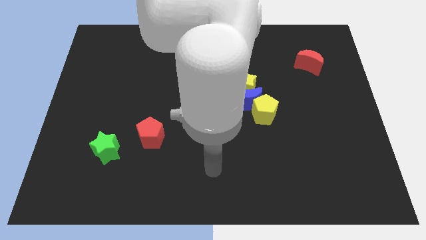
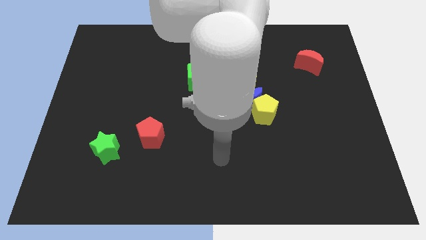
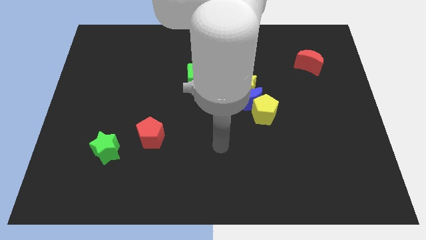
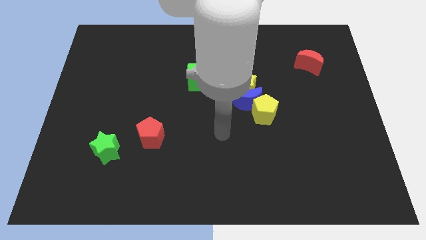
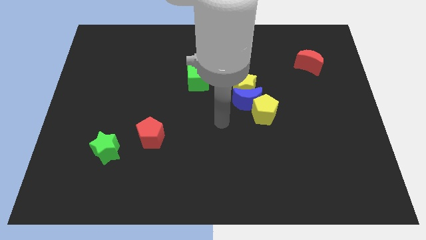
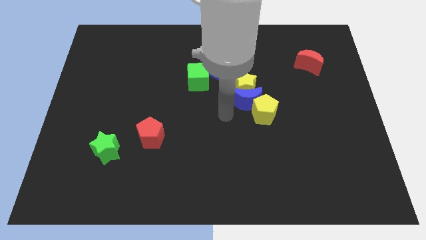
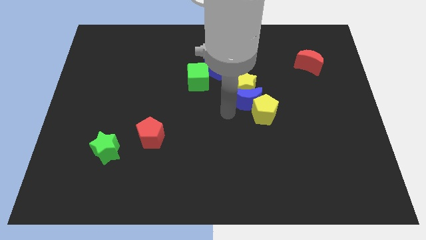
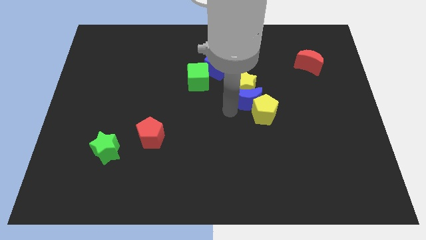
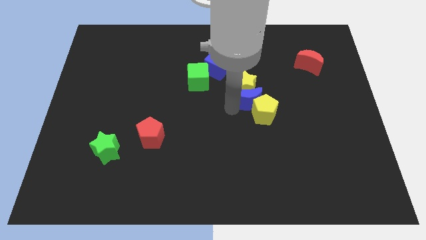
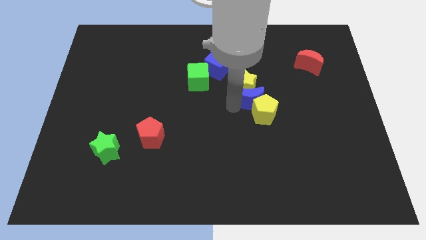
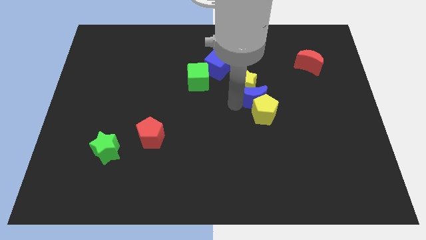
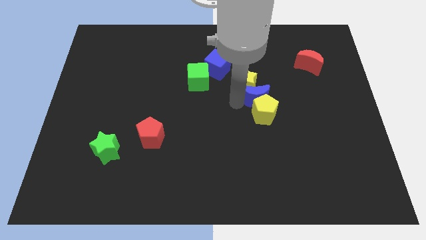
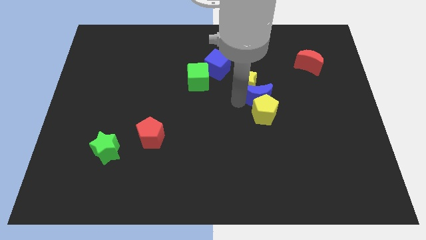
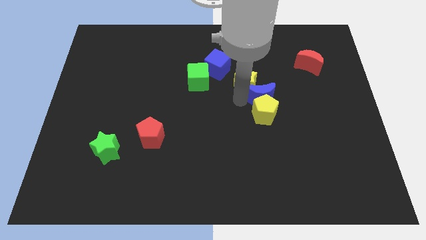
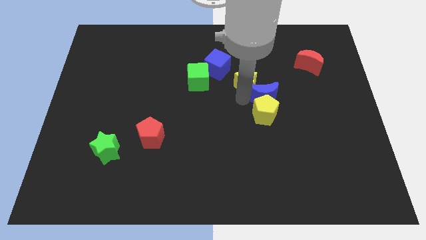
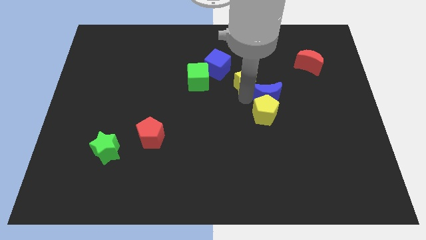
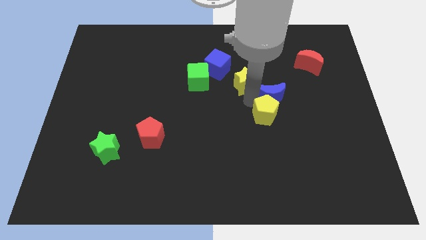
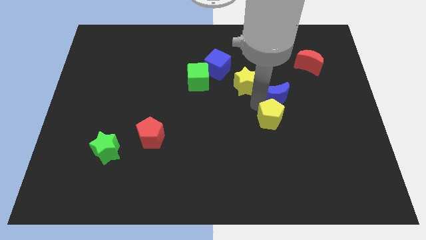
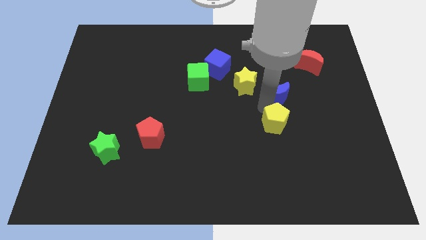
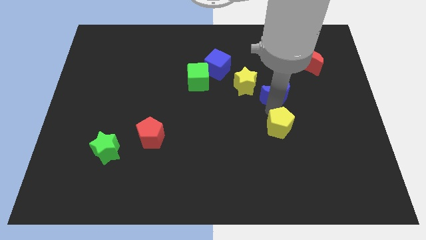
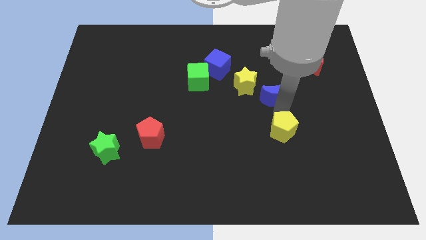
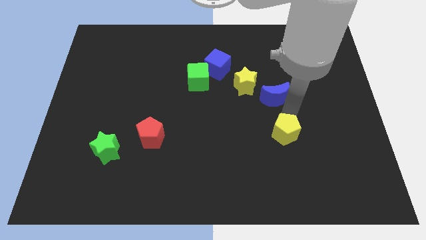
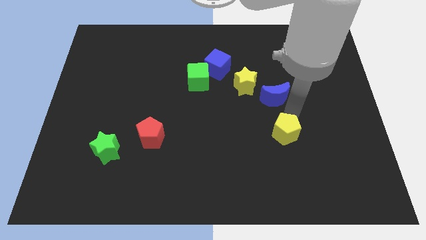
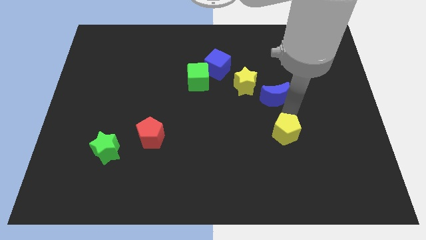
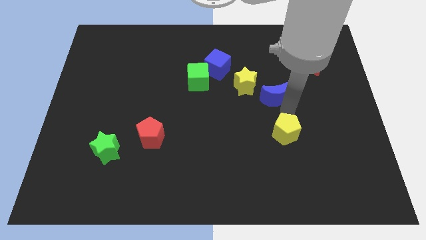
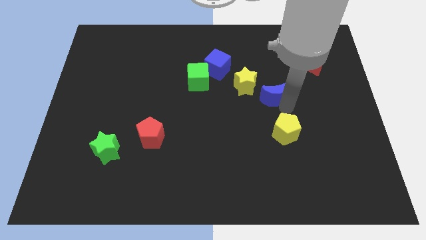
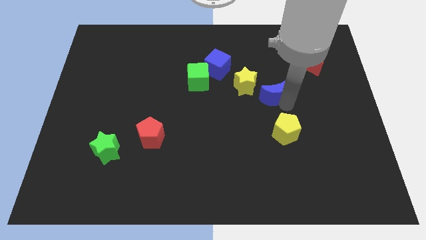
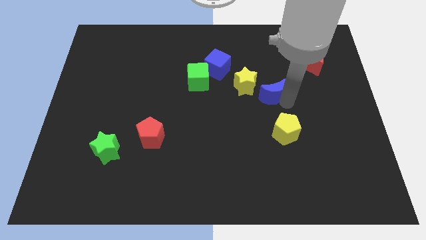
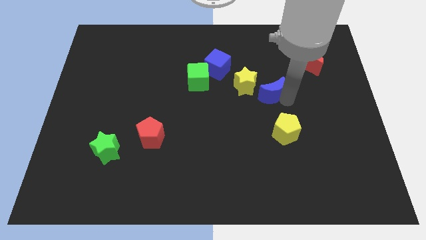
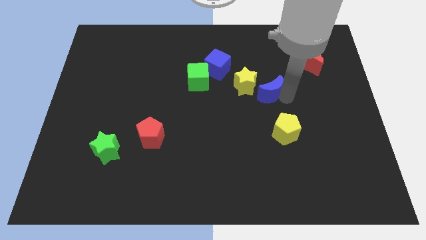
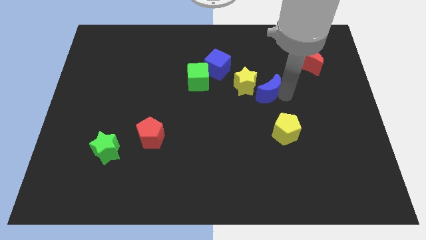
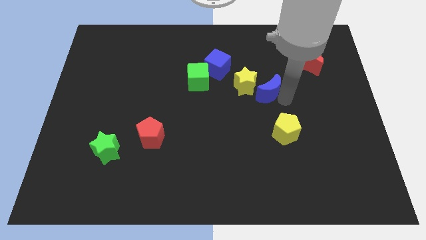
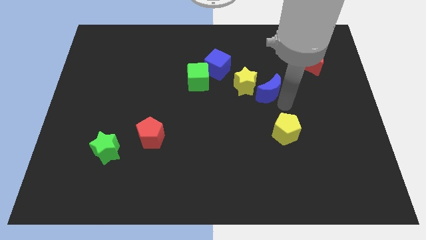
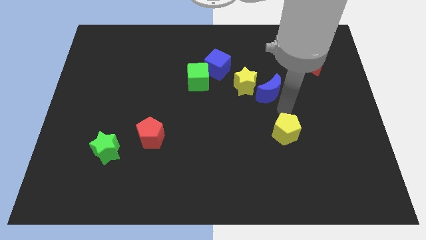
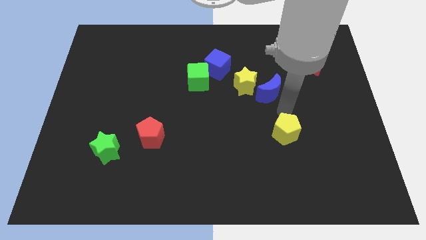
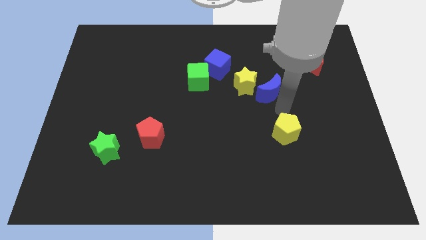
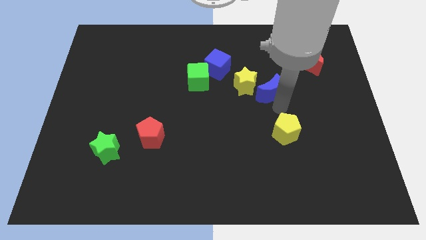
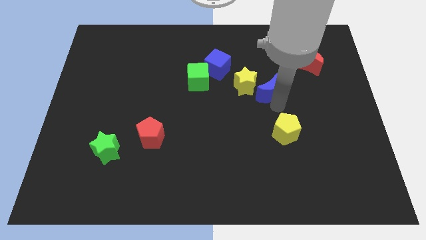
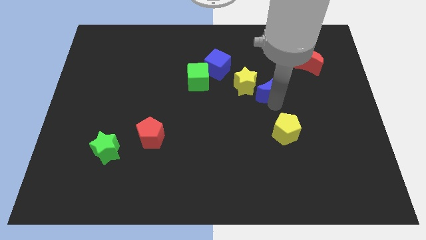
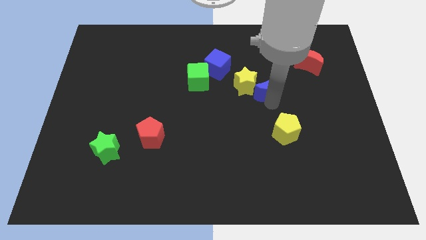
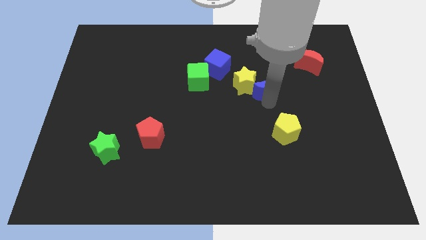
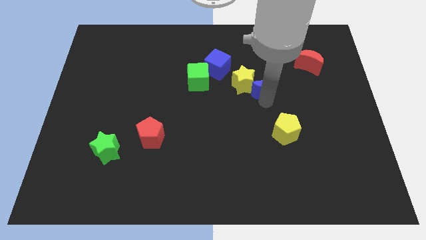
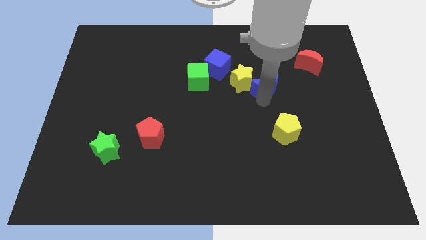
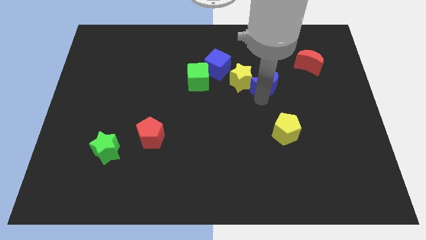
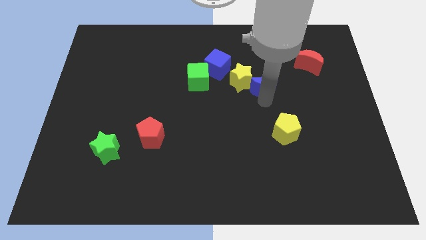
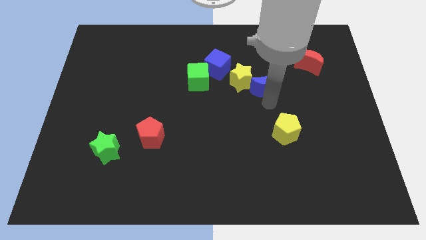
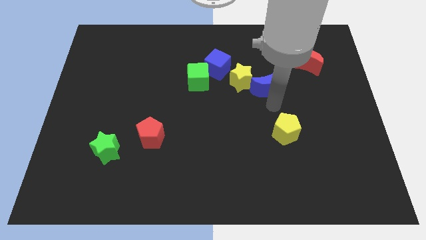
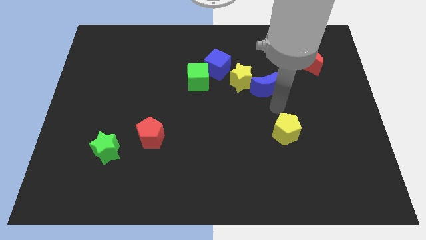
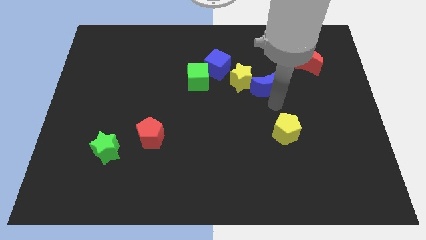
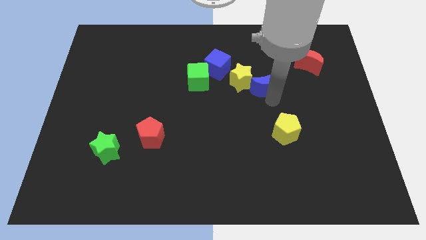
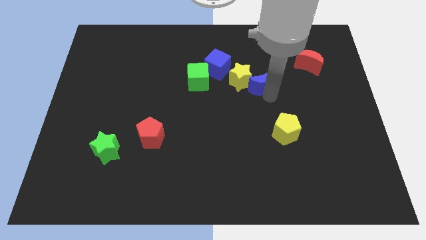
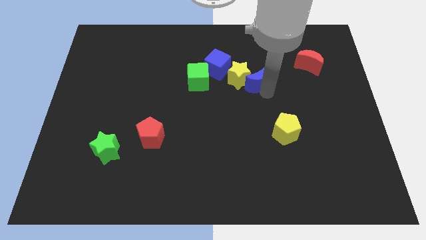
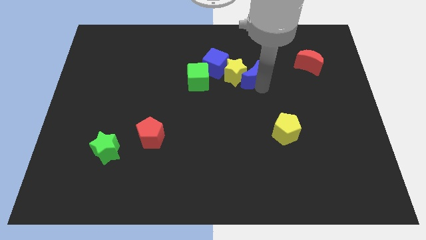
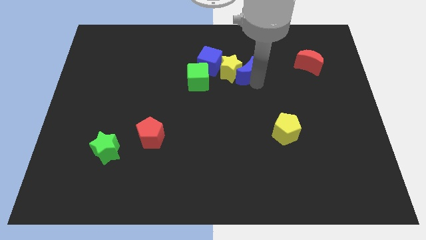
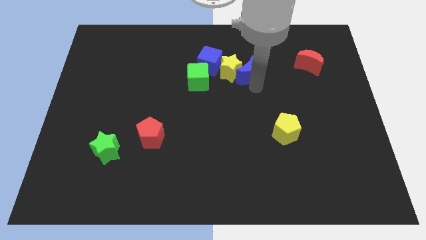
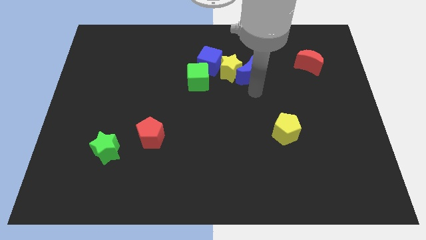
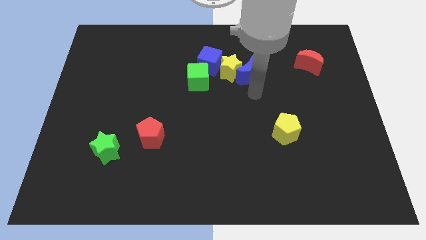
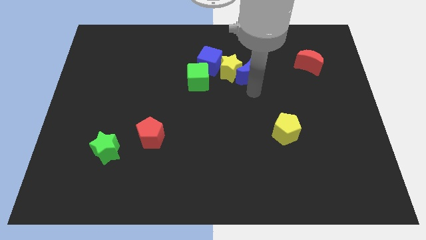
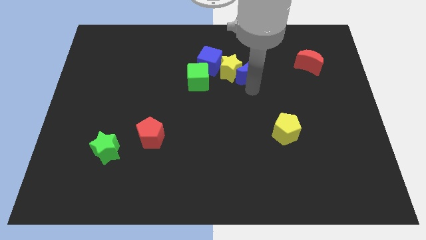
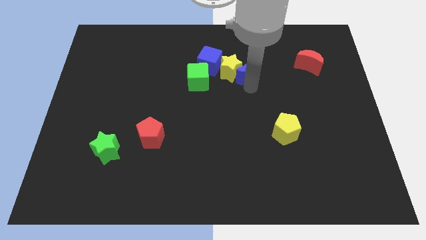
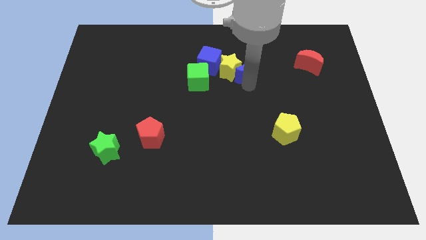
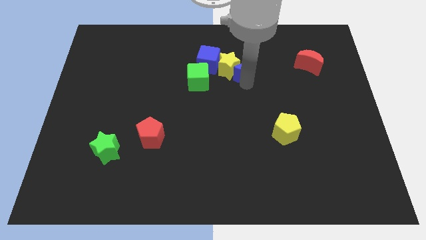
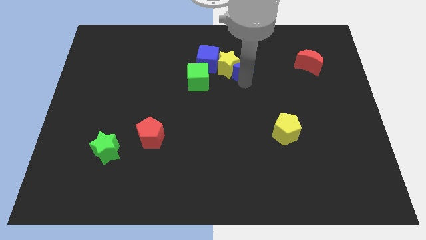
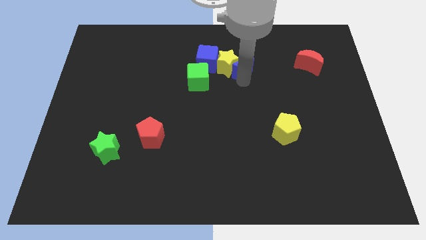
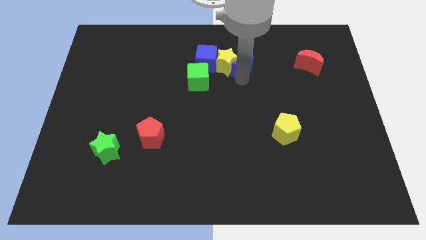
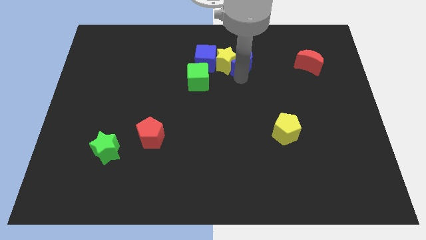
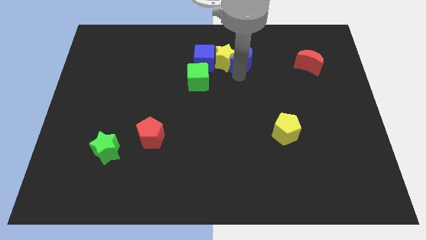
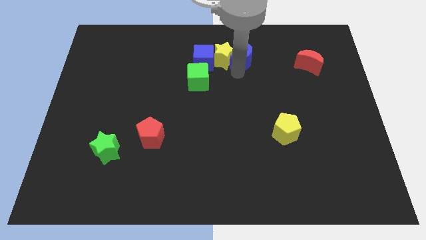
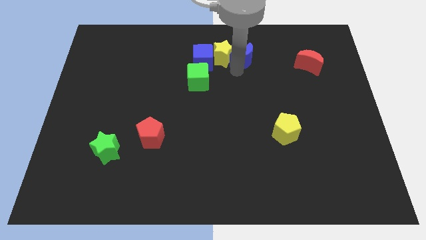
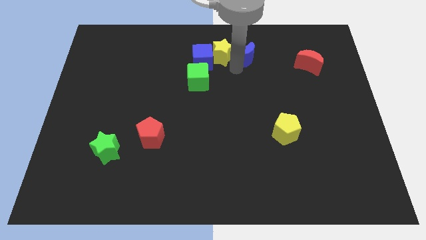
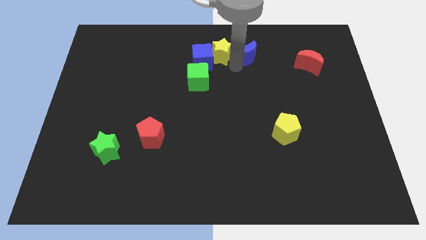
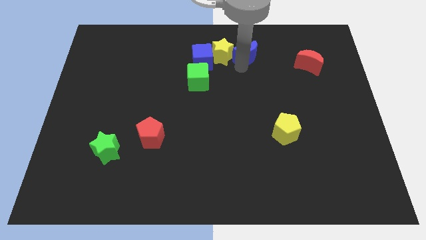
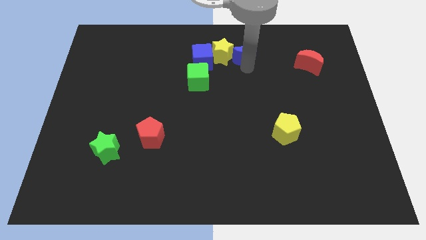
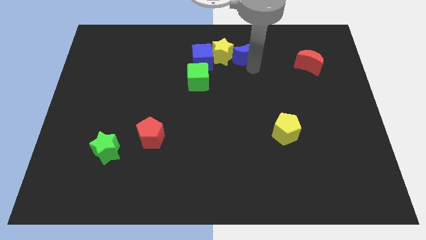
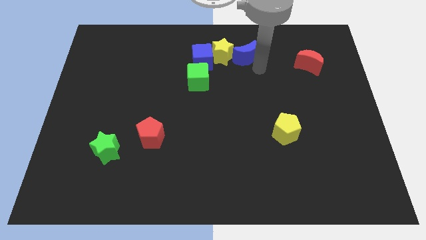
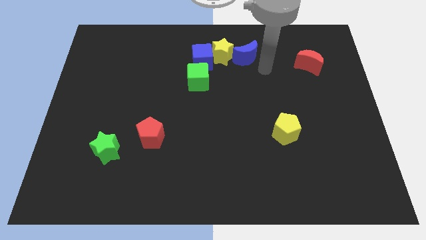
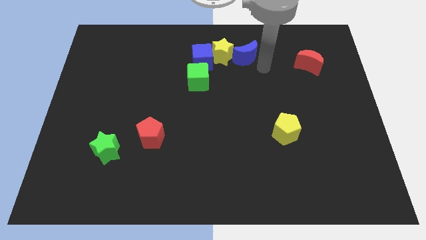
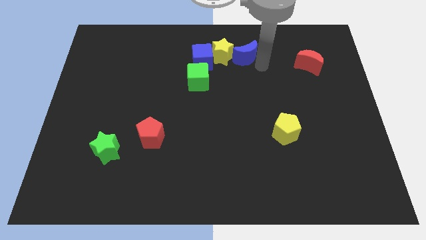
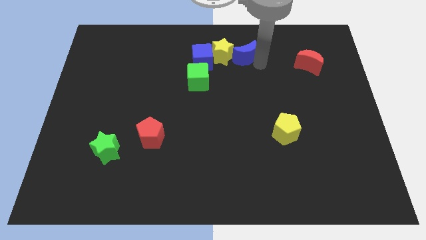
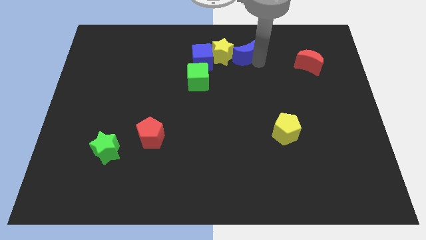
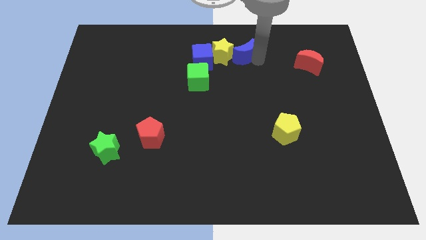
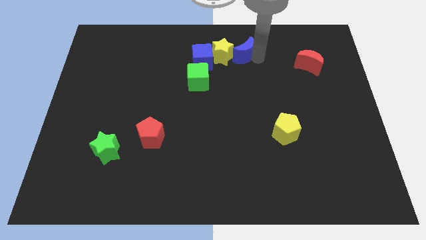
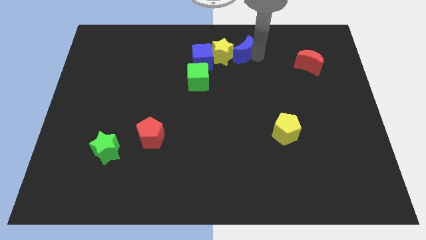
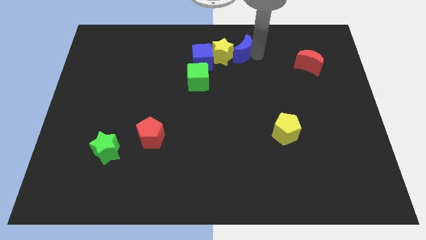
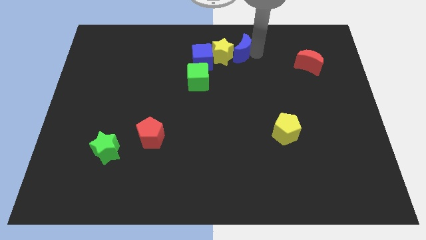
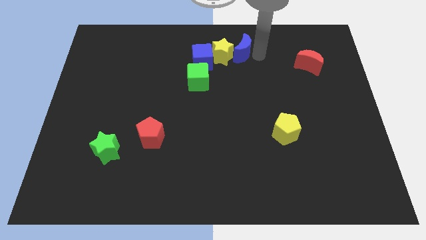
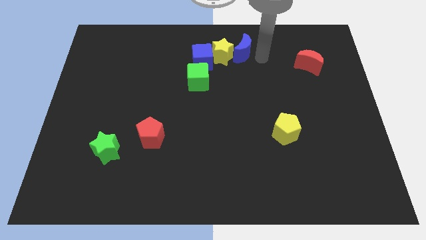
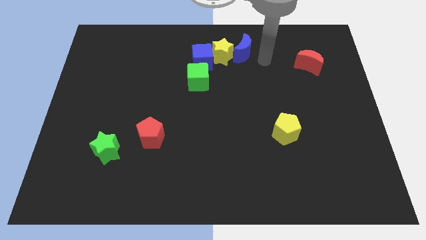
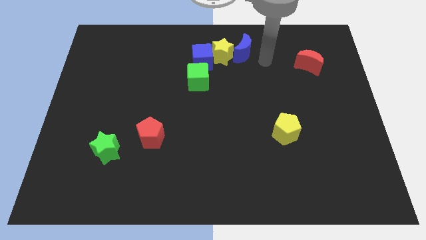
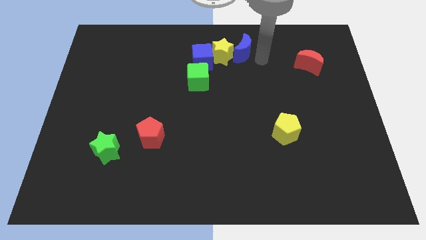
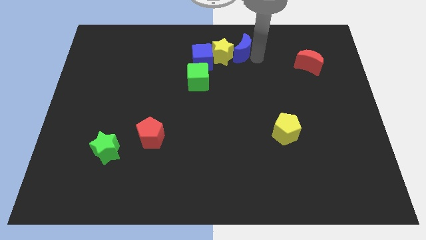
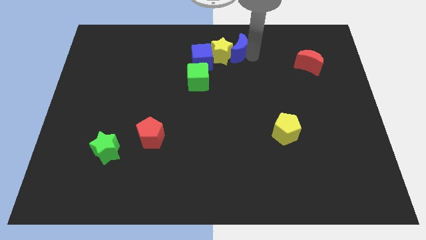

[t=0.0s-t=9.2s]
push the blue moon to the top
